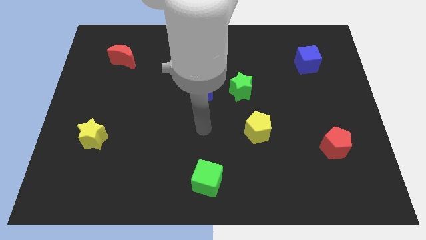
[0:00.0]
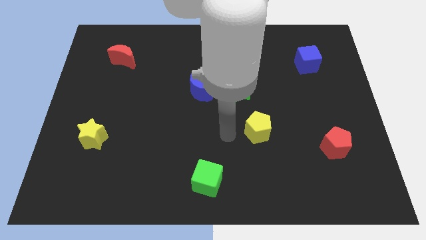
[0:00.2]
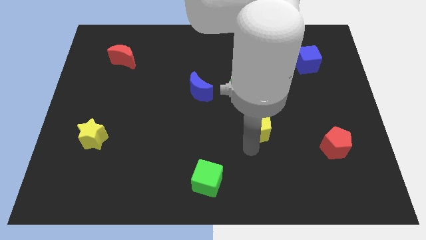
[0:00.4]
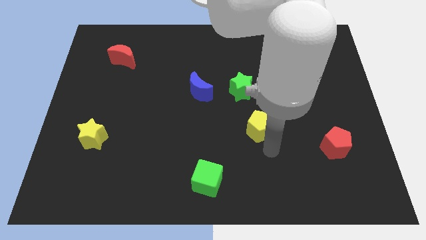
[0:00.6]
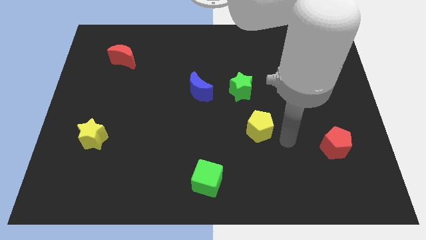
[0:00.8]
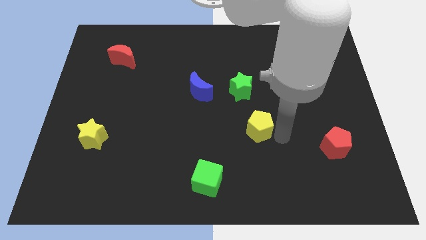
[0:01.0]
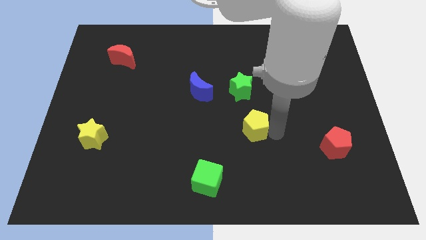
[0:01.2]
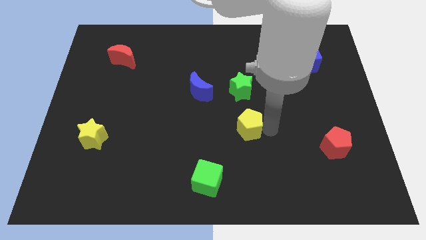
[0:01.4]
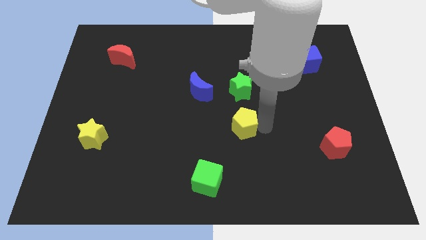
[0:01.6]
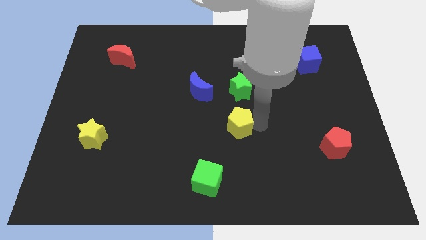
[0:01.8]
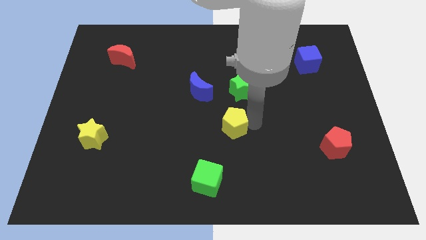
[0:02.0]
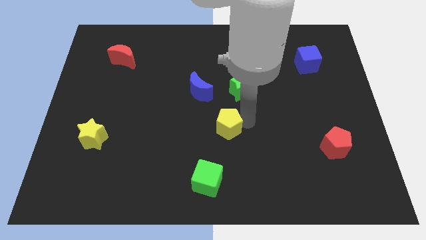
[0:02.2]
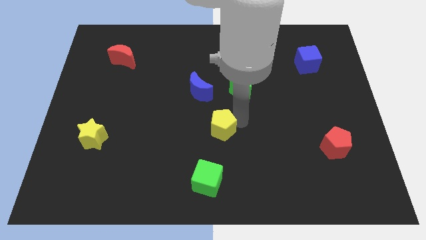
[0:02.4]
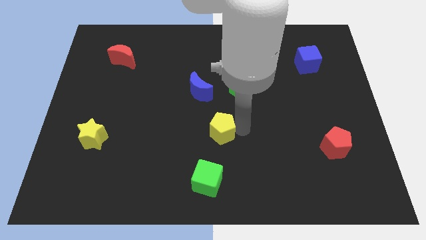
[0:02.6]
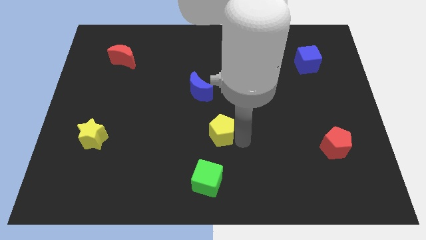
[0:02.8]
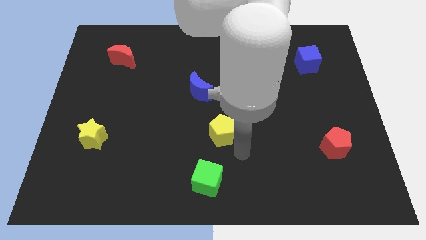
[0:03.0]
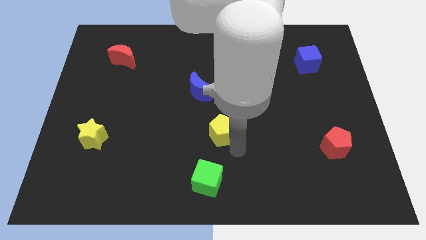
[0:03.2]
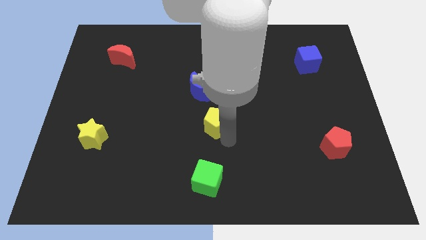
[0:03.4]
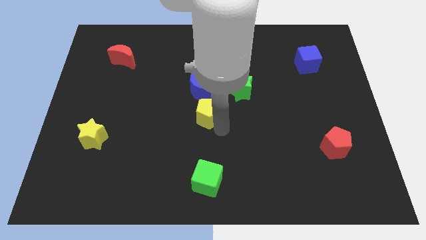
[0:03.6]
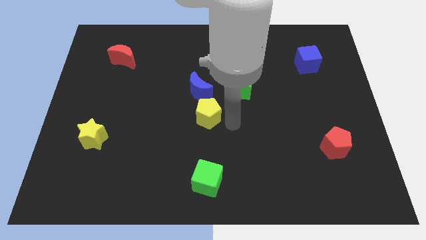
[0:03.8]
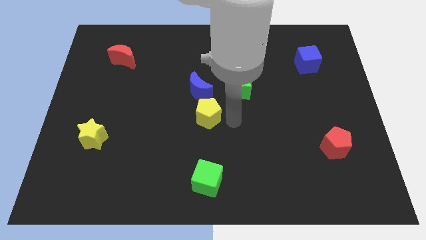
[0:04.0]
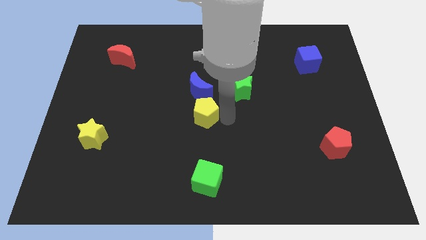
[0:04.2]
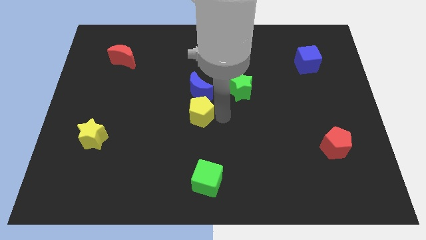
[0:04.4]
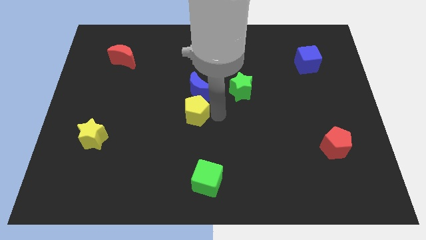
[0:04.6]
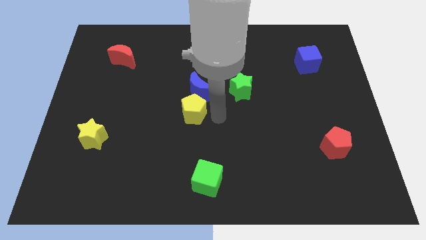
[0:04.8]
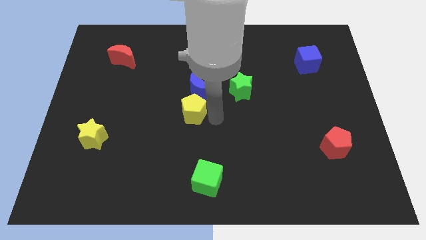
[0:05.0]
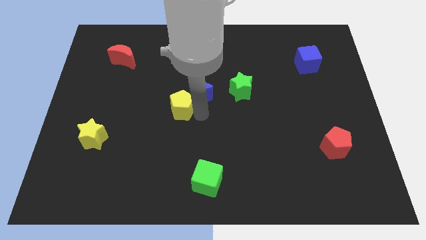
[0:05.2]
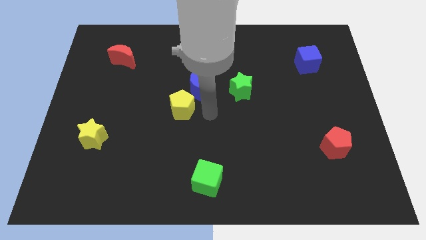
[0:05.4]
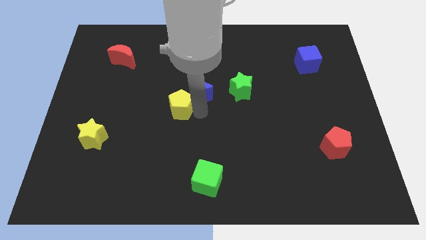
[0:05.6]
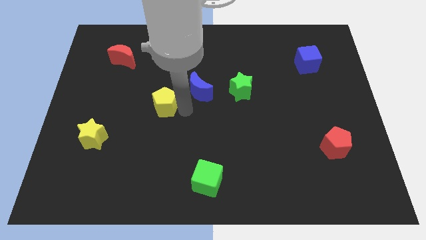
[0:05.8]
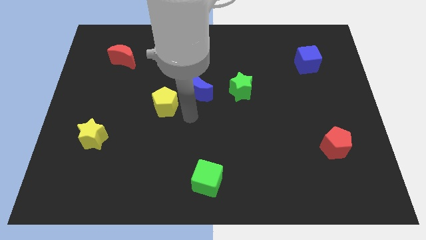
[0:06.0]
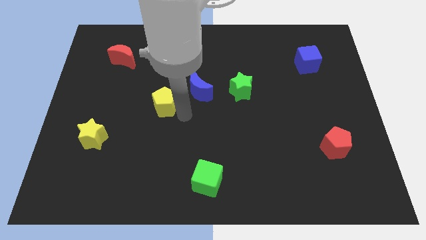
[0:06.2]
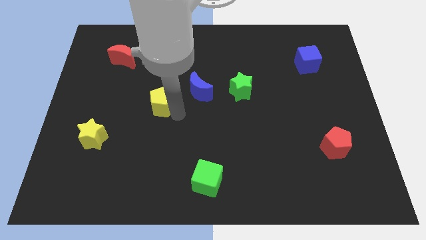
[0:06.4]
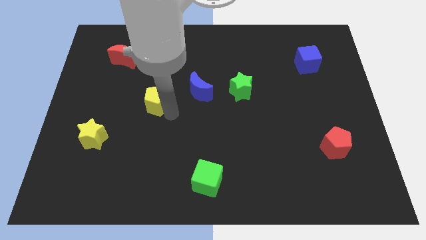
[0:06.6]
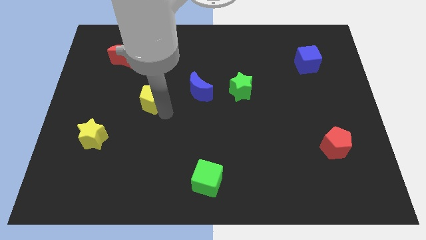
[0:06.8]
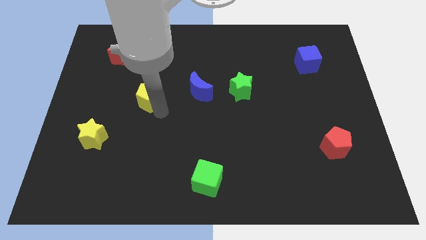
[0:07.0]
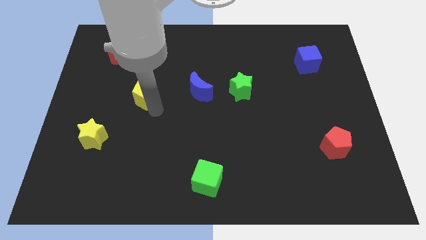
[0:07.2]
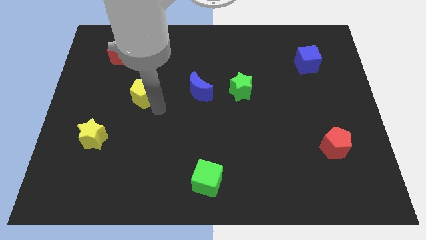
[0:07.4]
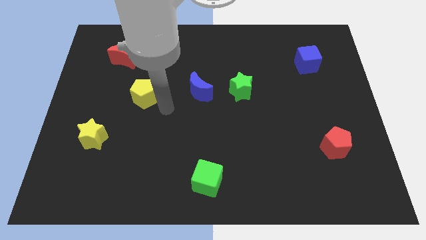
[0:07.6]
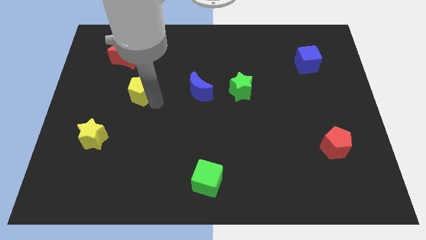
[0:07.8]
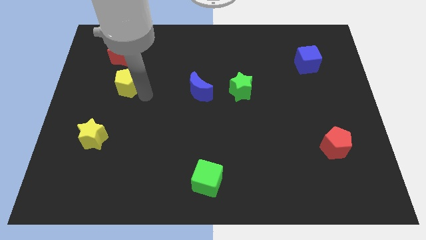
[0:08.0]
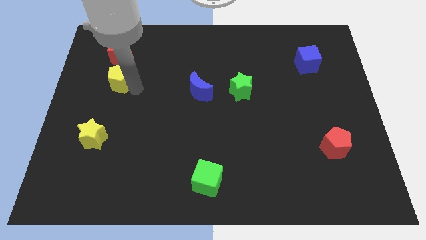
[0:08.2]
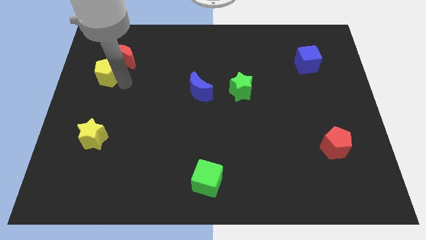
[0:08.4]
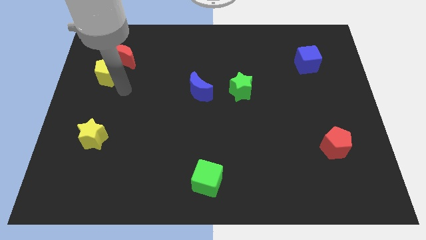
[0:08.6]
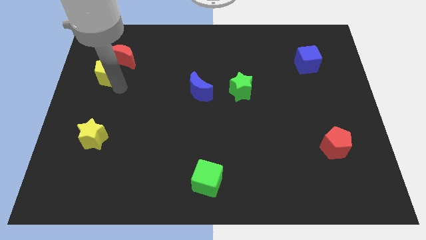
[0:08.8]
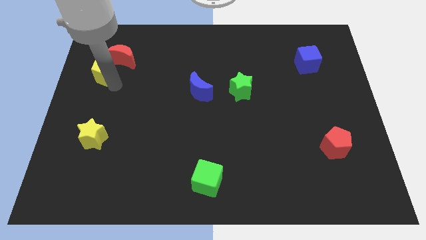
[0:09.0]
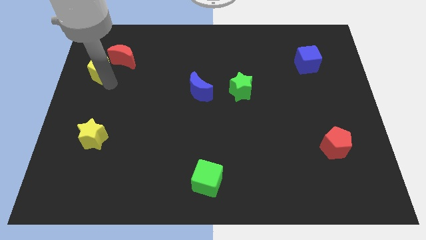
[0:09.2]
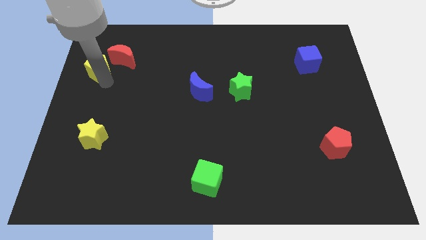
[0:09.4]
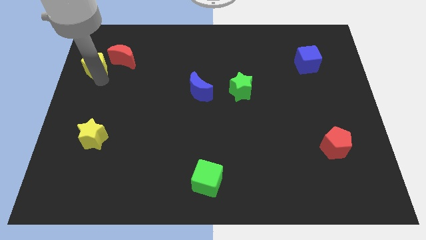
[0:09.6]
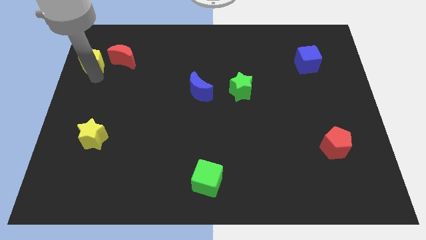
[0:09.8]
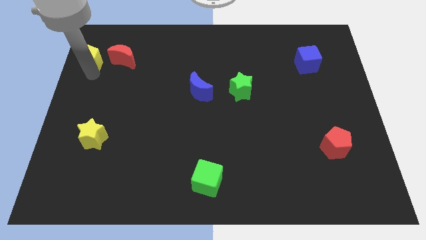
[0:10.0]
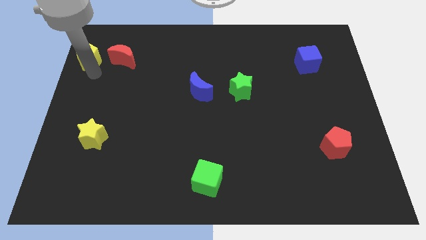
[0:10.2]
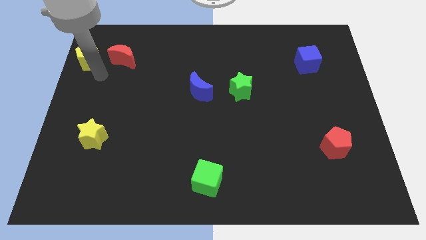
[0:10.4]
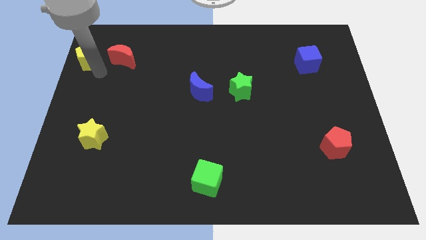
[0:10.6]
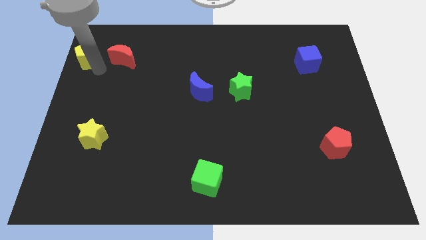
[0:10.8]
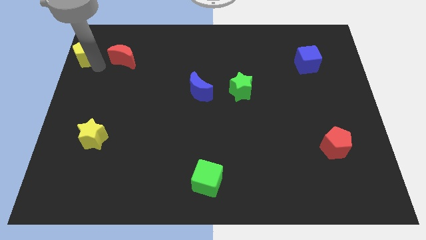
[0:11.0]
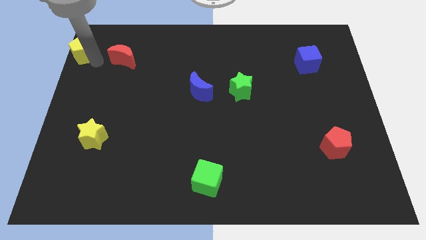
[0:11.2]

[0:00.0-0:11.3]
move the yellow pentagon to the top left of the board
